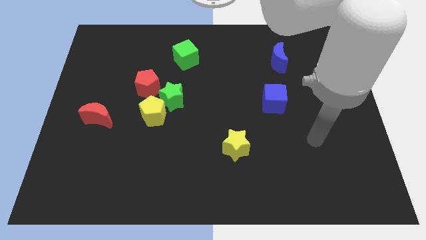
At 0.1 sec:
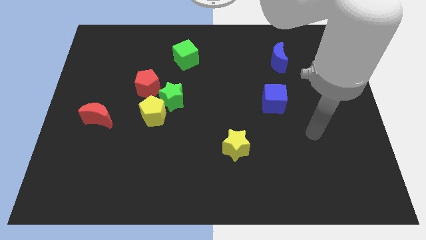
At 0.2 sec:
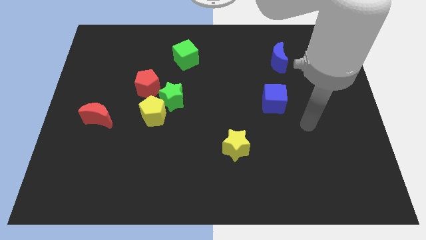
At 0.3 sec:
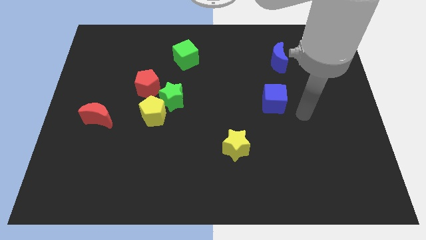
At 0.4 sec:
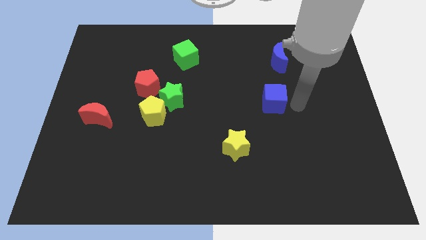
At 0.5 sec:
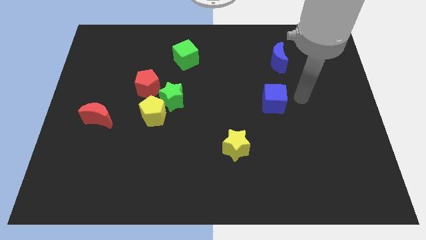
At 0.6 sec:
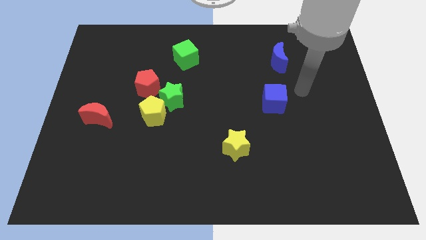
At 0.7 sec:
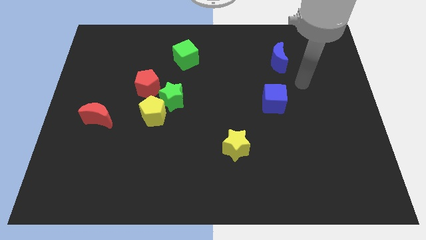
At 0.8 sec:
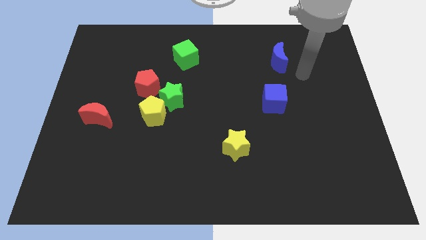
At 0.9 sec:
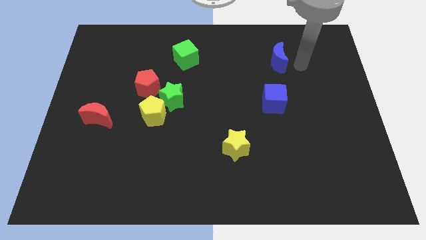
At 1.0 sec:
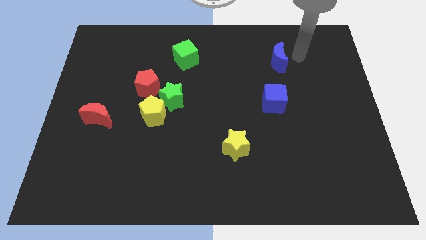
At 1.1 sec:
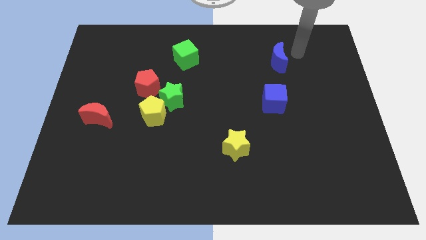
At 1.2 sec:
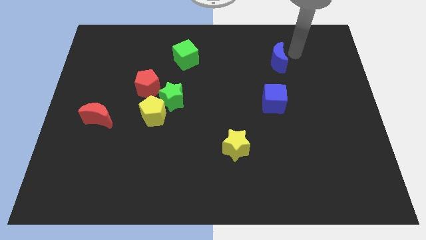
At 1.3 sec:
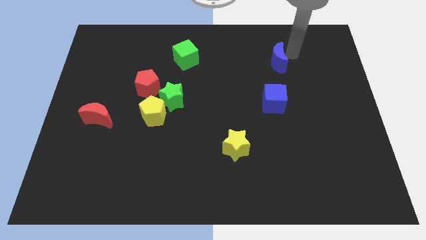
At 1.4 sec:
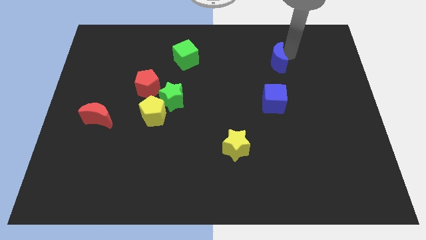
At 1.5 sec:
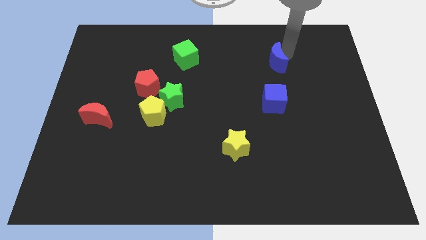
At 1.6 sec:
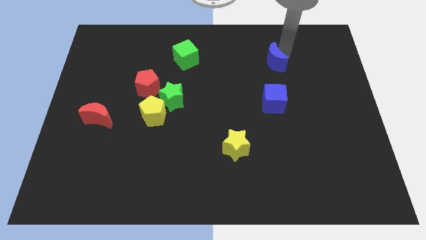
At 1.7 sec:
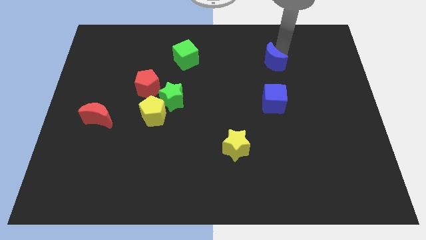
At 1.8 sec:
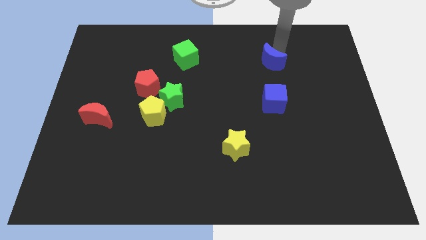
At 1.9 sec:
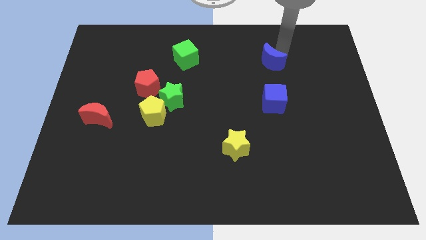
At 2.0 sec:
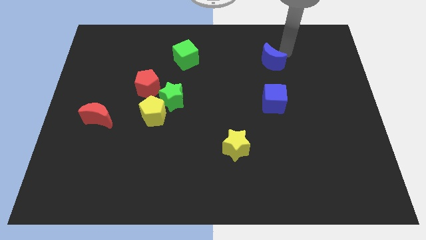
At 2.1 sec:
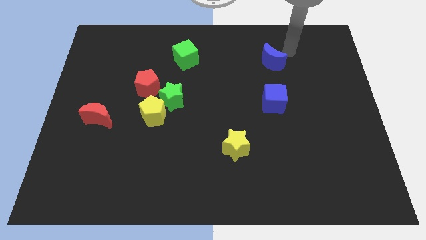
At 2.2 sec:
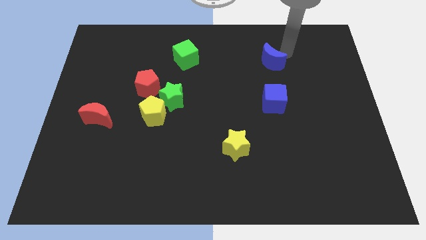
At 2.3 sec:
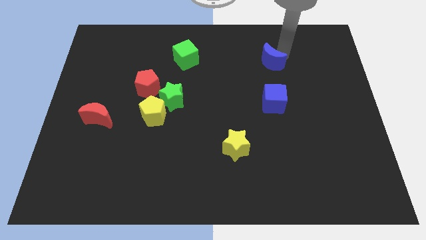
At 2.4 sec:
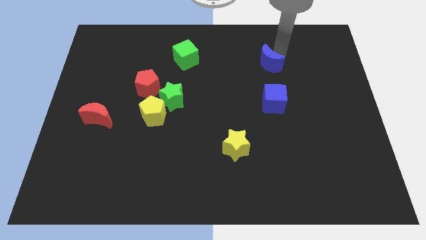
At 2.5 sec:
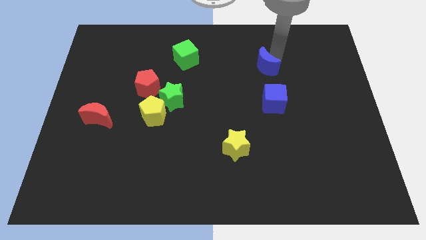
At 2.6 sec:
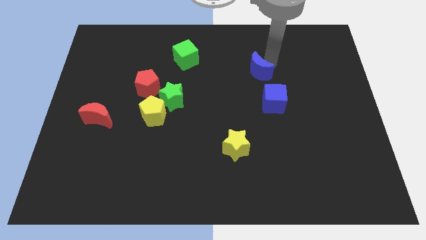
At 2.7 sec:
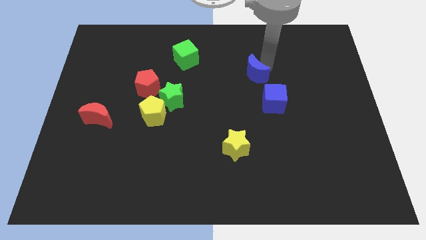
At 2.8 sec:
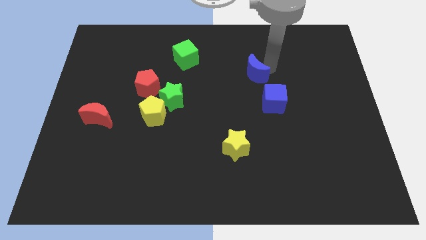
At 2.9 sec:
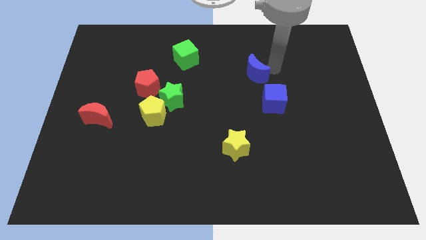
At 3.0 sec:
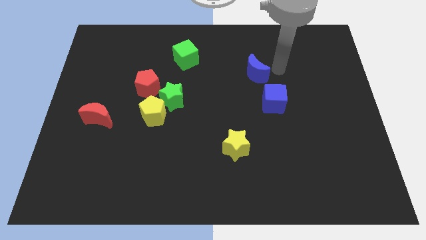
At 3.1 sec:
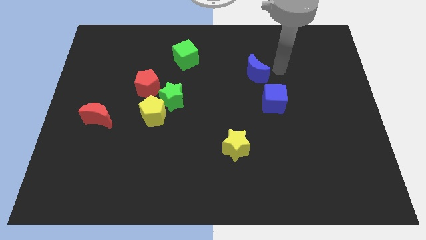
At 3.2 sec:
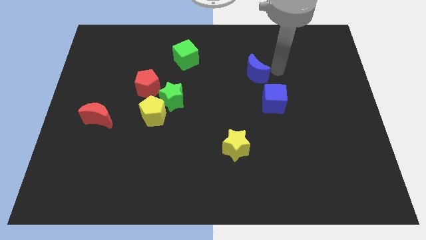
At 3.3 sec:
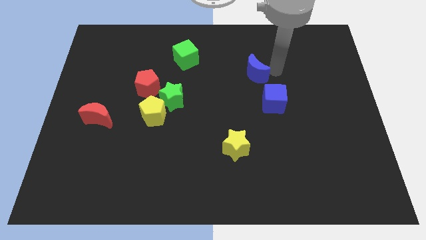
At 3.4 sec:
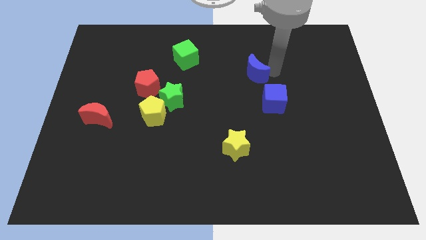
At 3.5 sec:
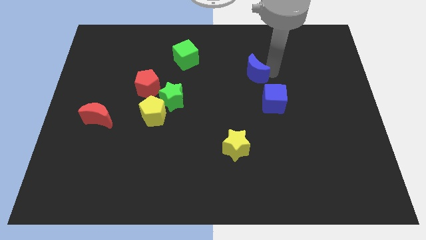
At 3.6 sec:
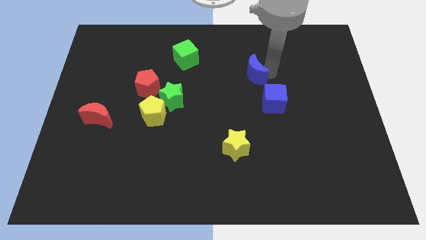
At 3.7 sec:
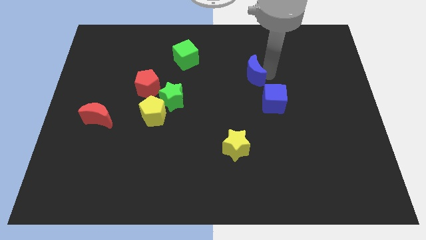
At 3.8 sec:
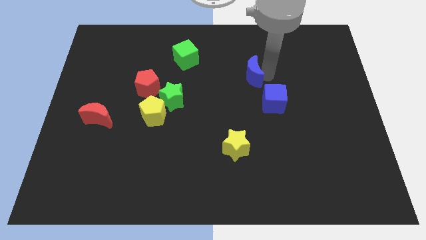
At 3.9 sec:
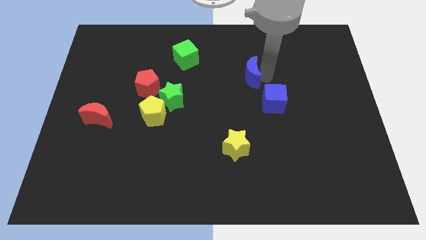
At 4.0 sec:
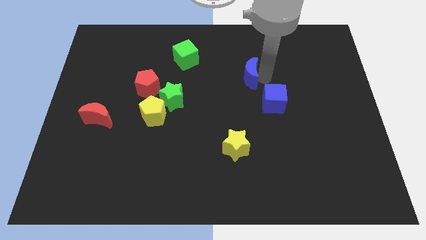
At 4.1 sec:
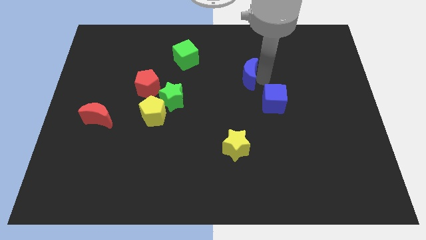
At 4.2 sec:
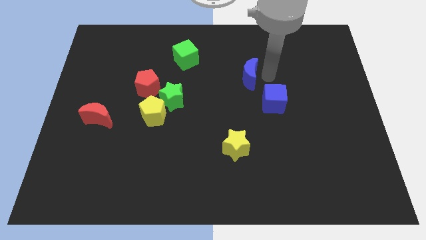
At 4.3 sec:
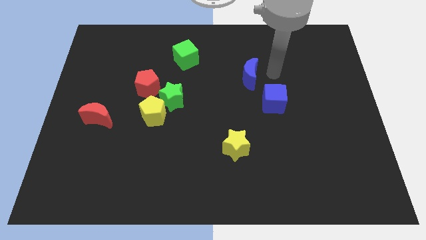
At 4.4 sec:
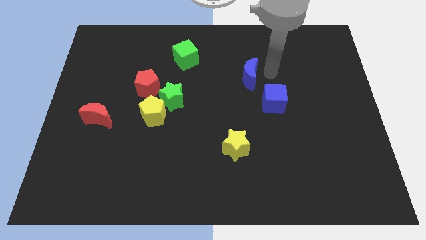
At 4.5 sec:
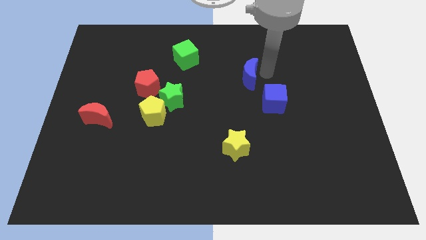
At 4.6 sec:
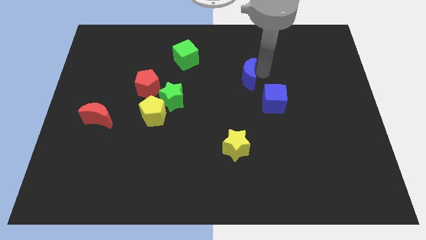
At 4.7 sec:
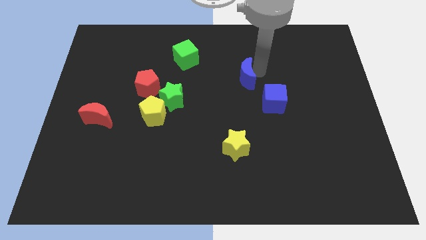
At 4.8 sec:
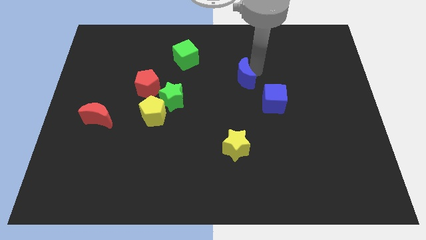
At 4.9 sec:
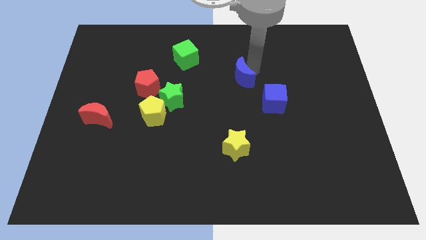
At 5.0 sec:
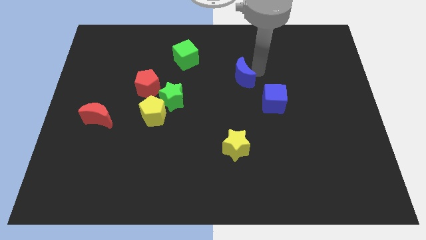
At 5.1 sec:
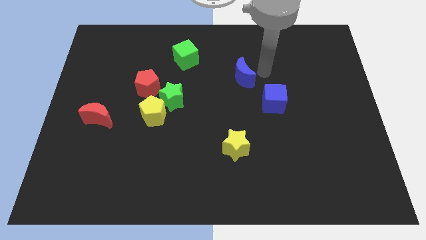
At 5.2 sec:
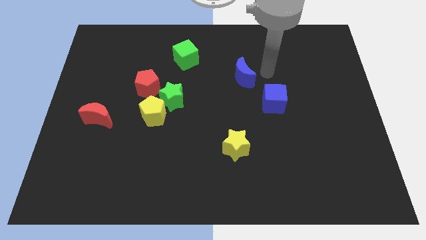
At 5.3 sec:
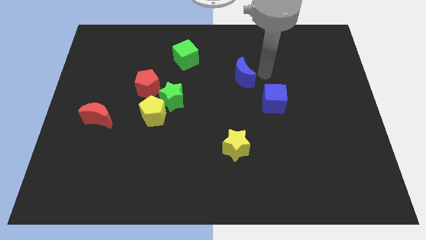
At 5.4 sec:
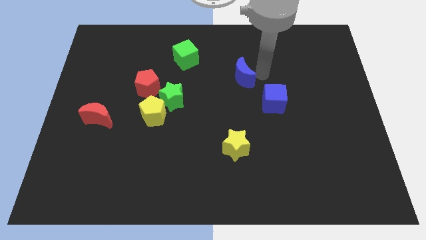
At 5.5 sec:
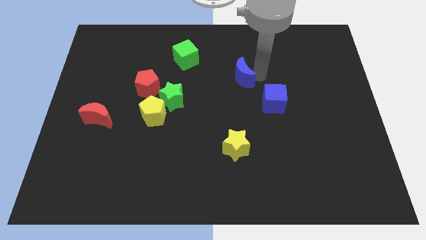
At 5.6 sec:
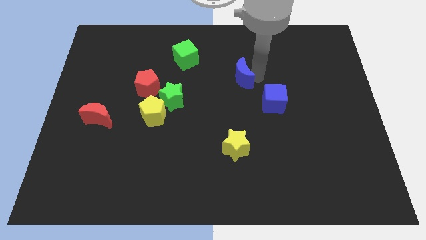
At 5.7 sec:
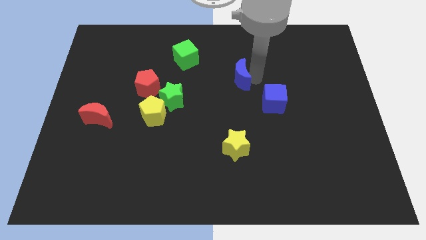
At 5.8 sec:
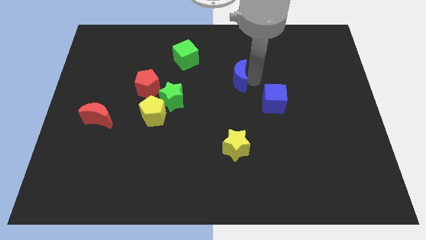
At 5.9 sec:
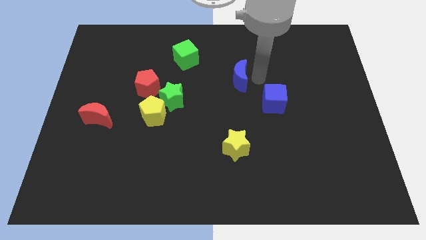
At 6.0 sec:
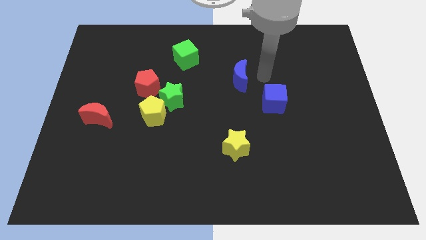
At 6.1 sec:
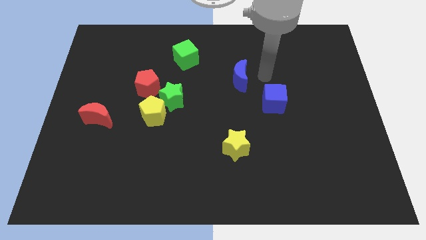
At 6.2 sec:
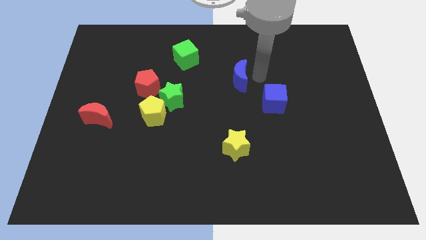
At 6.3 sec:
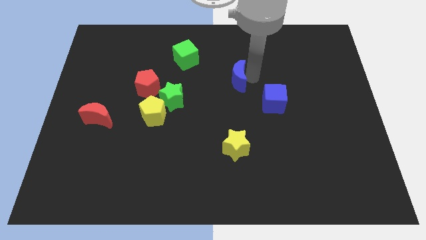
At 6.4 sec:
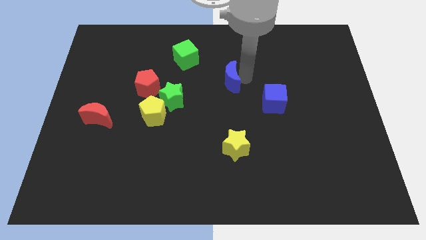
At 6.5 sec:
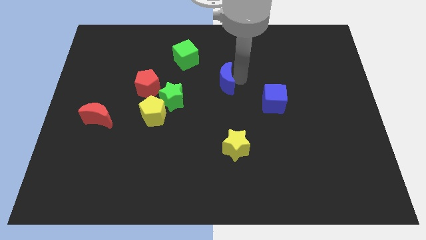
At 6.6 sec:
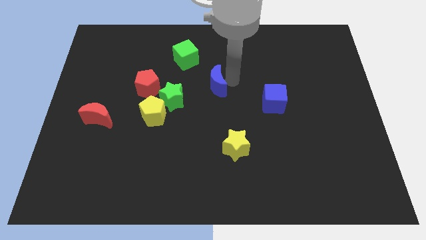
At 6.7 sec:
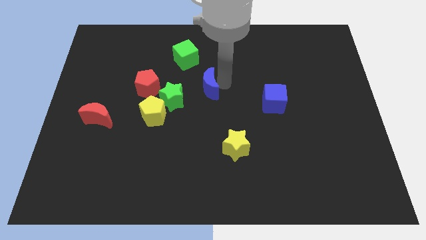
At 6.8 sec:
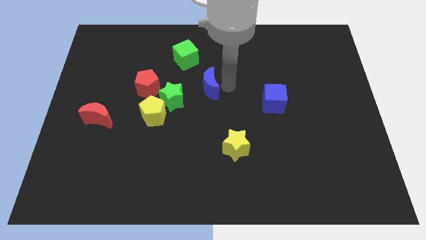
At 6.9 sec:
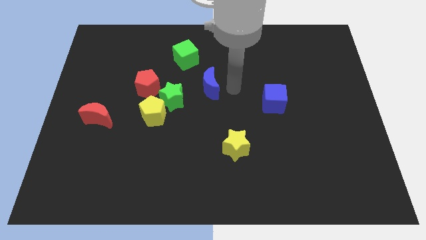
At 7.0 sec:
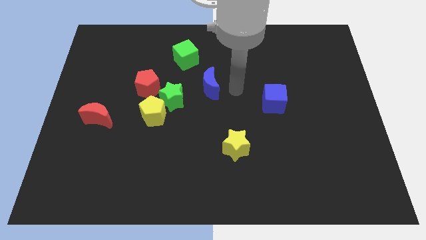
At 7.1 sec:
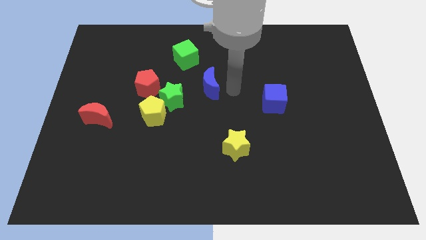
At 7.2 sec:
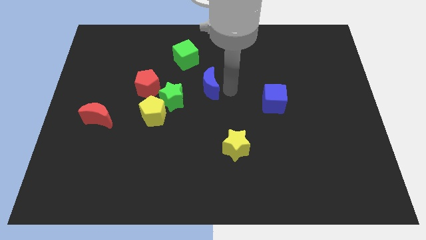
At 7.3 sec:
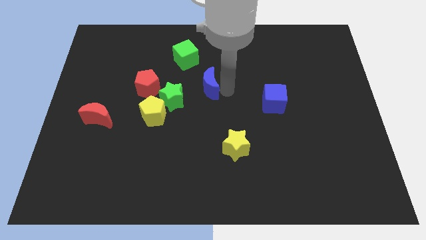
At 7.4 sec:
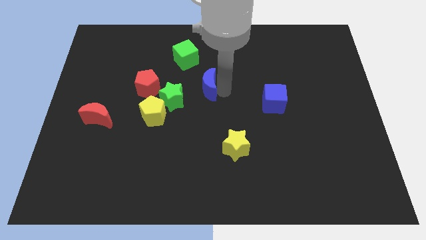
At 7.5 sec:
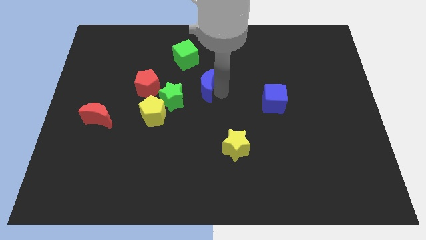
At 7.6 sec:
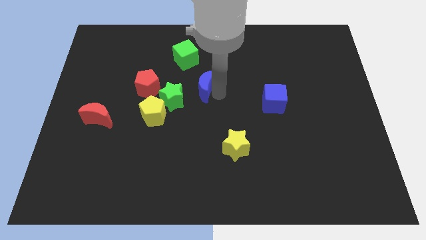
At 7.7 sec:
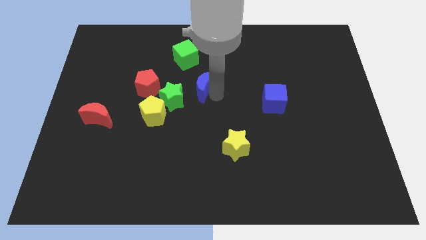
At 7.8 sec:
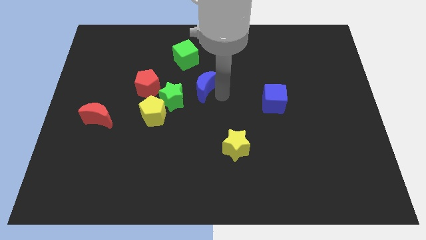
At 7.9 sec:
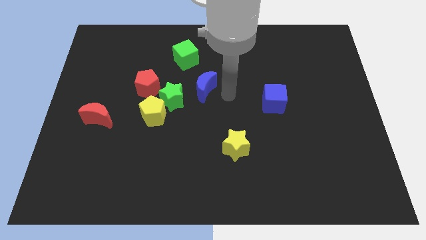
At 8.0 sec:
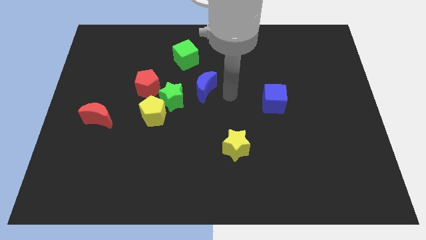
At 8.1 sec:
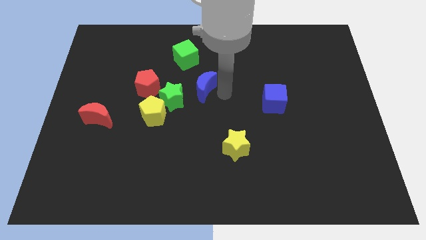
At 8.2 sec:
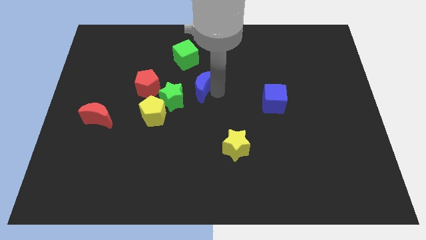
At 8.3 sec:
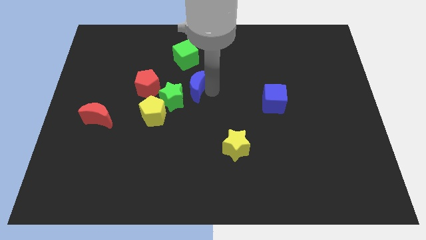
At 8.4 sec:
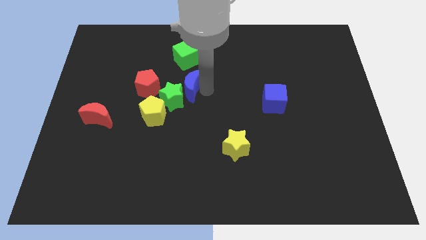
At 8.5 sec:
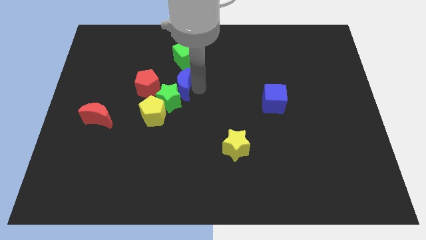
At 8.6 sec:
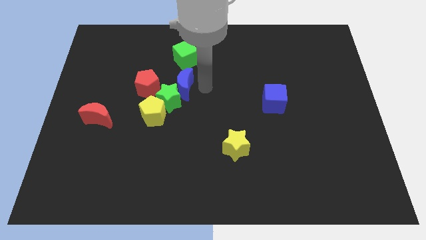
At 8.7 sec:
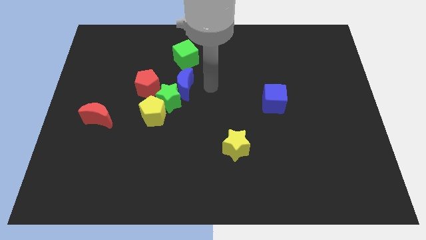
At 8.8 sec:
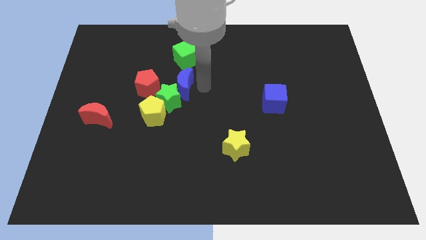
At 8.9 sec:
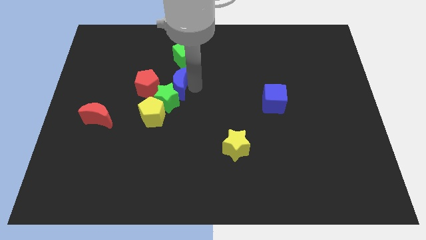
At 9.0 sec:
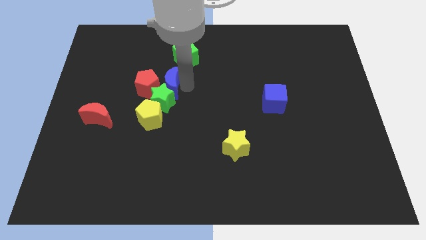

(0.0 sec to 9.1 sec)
move the blue moon close to the red pentagon
